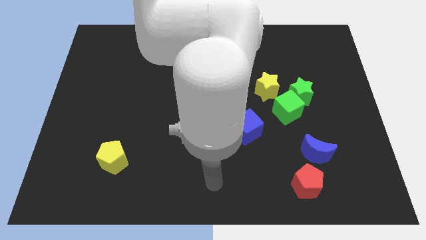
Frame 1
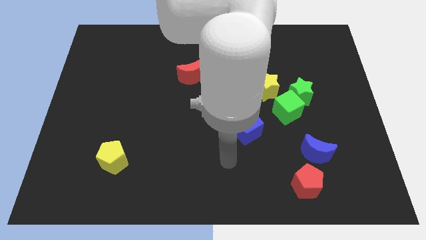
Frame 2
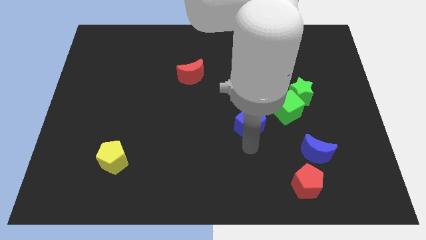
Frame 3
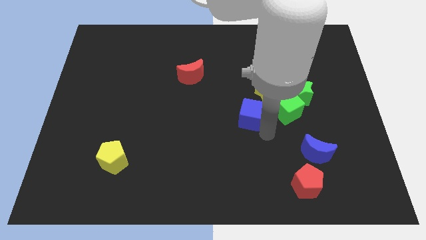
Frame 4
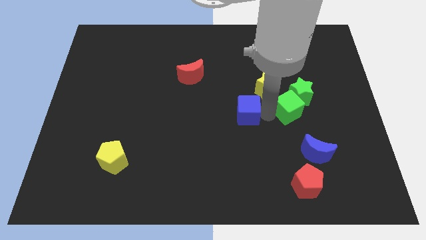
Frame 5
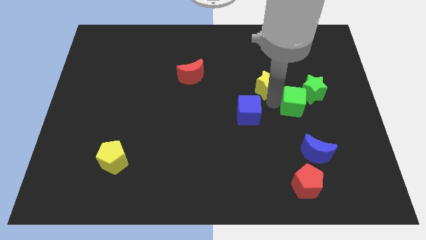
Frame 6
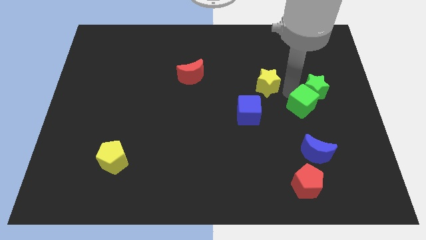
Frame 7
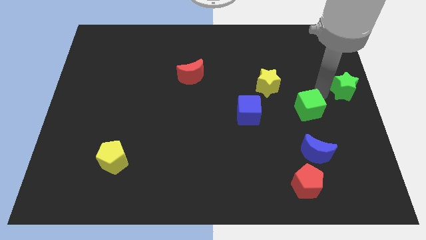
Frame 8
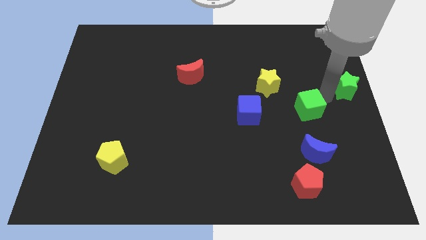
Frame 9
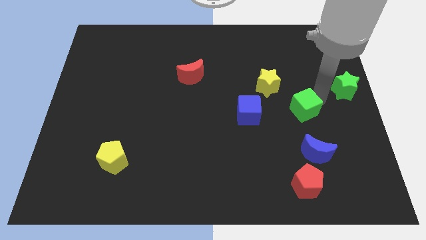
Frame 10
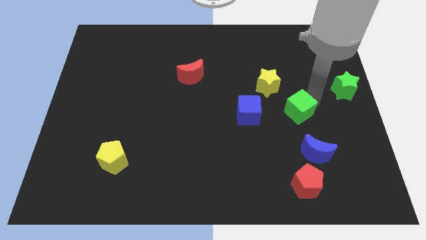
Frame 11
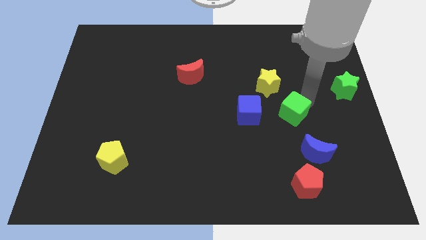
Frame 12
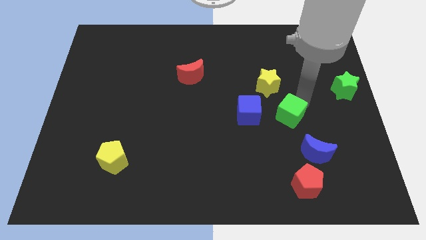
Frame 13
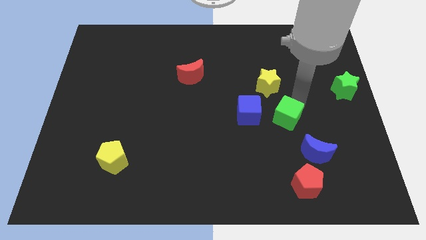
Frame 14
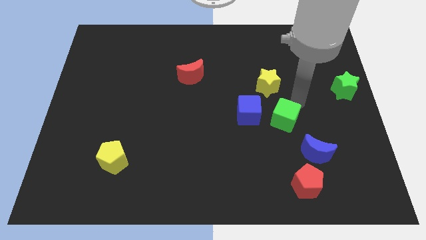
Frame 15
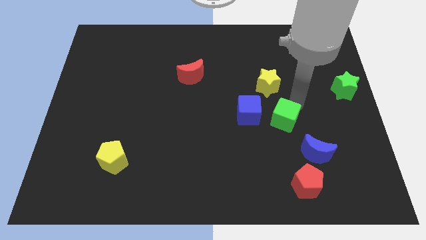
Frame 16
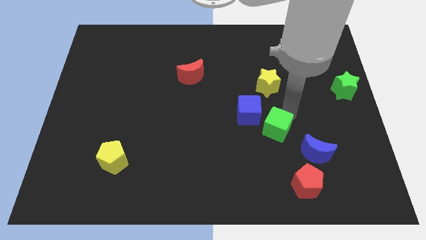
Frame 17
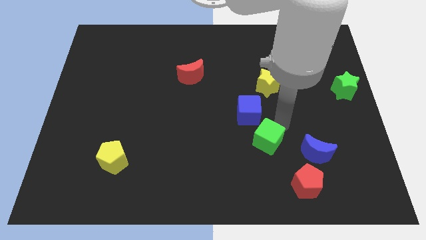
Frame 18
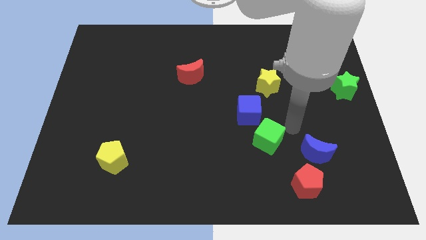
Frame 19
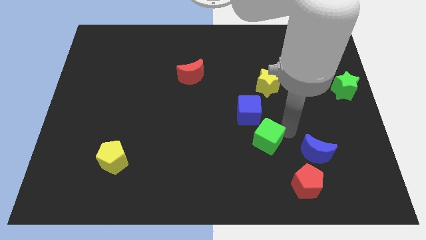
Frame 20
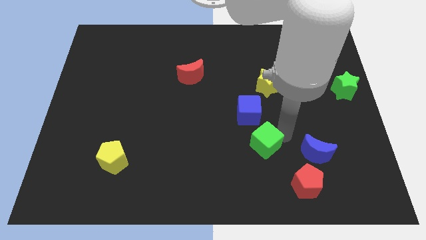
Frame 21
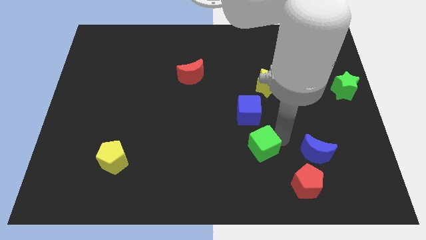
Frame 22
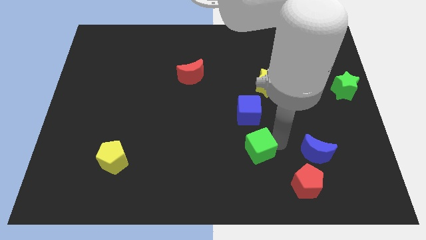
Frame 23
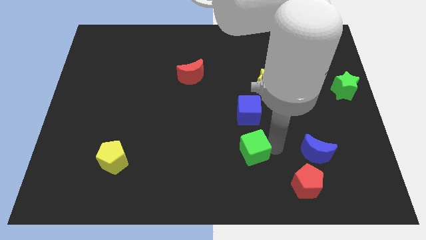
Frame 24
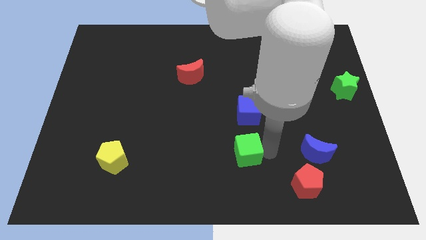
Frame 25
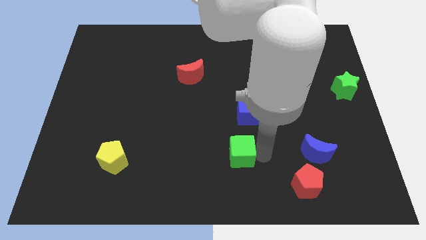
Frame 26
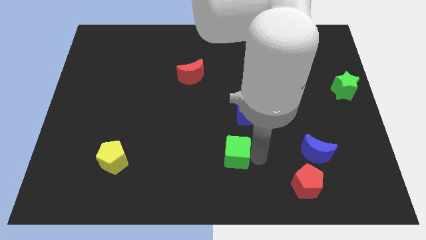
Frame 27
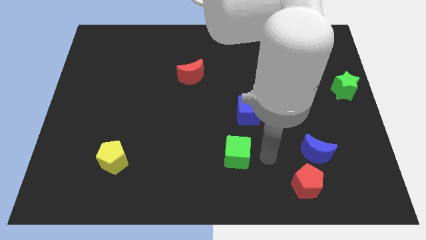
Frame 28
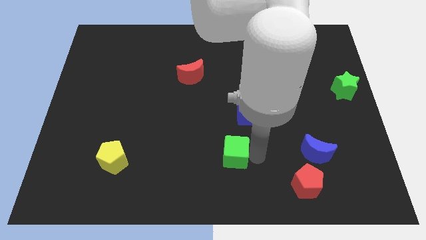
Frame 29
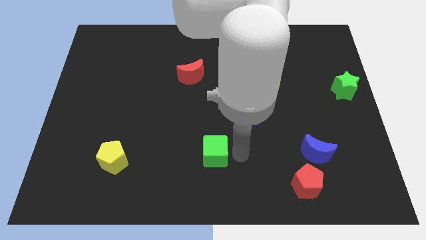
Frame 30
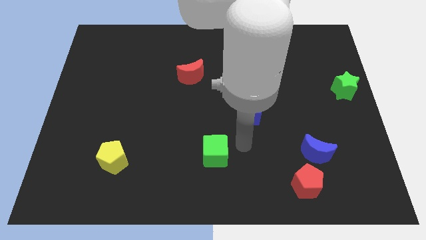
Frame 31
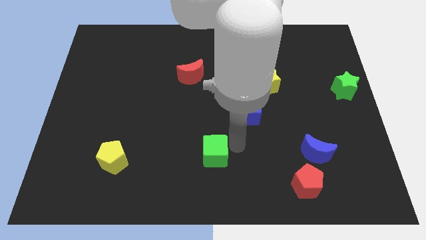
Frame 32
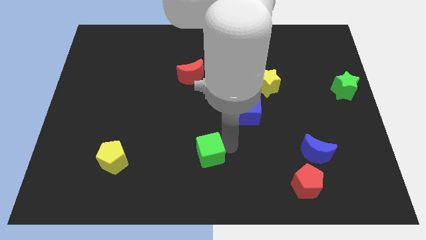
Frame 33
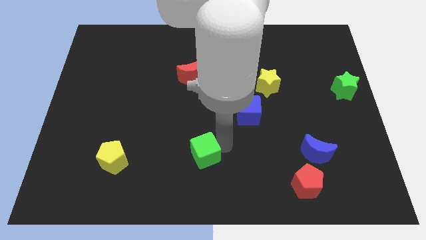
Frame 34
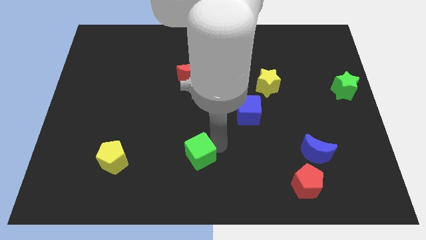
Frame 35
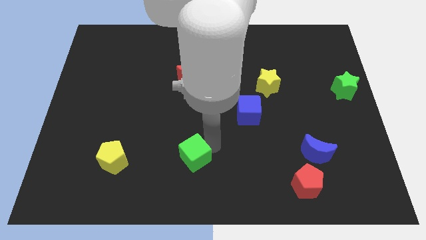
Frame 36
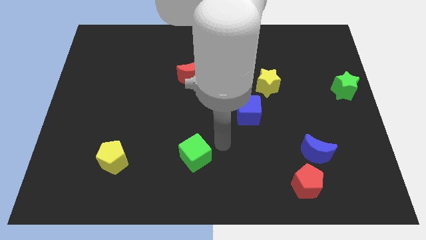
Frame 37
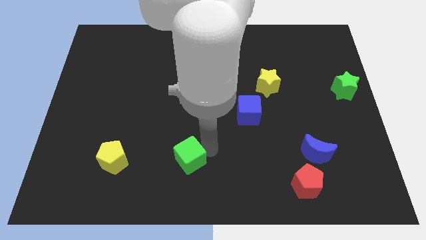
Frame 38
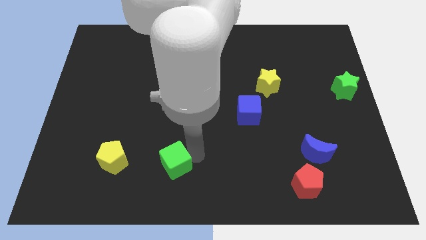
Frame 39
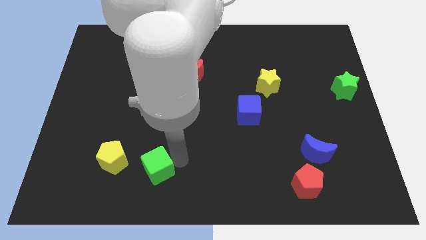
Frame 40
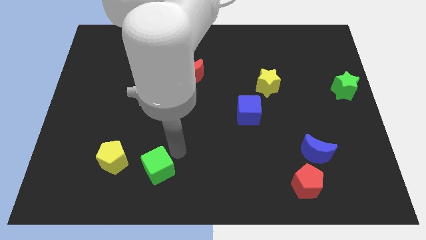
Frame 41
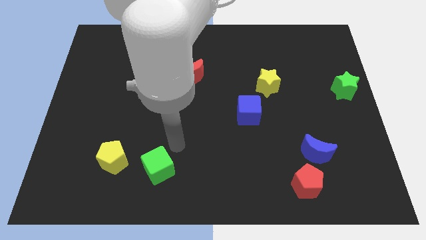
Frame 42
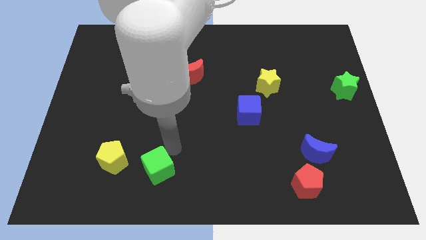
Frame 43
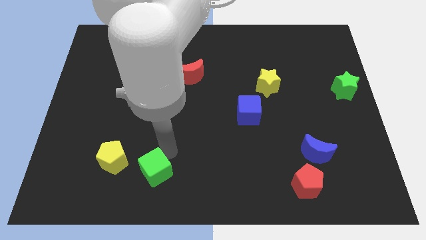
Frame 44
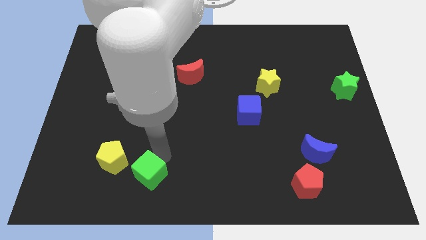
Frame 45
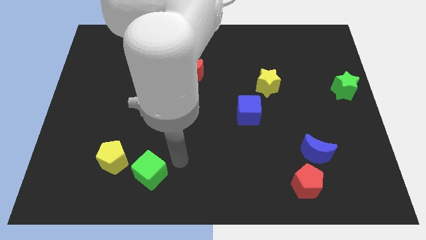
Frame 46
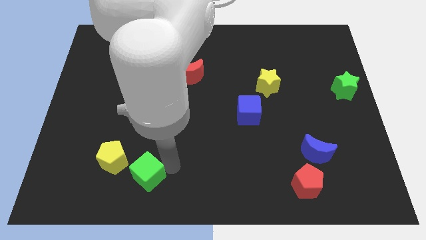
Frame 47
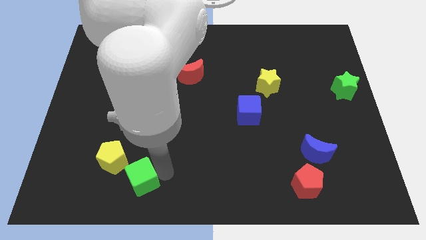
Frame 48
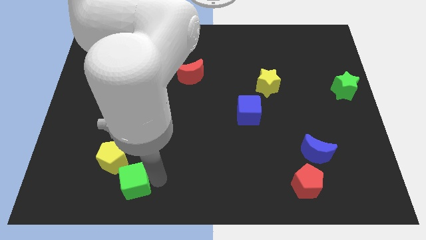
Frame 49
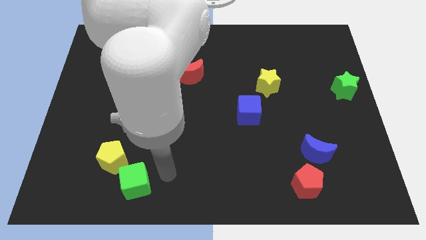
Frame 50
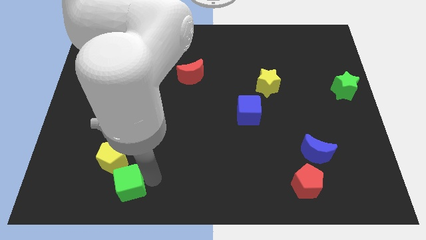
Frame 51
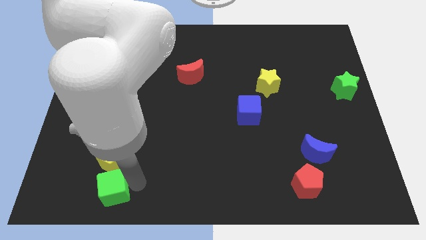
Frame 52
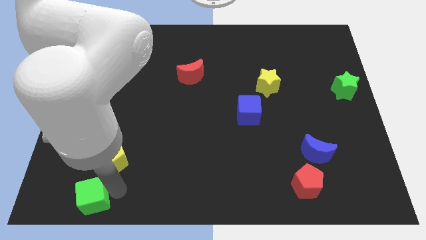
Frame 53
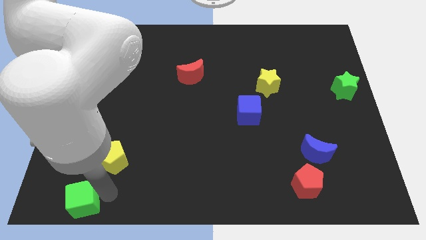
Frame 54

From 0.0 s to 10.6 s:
push the green cube to the bottom left of the board
